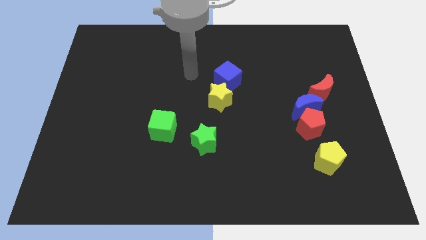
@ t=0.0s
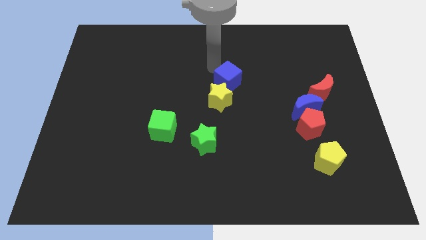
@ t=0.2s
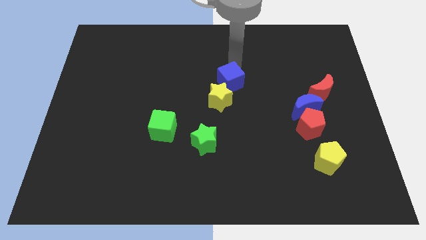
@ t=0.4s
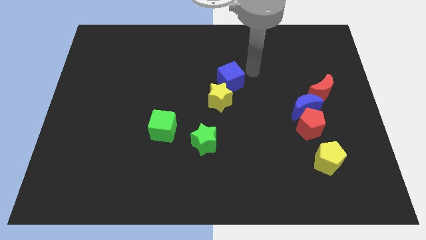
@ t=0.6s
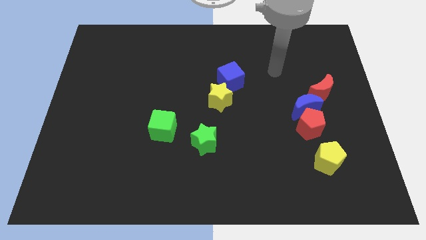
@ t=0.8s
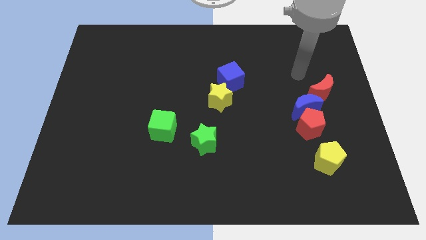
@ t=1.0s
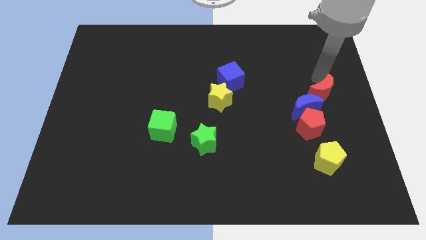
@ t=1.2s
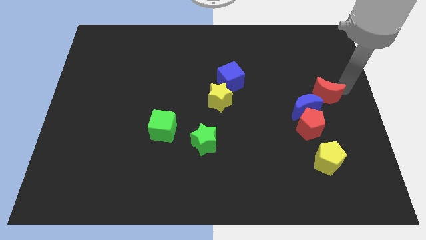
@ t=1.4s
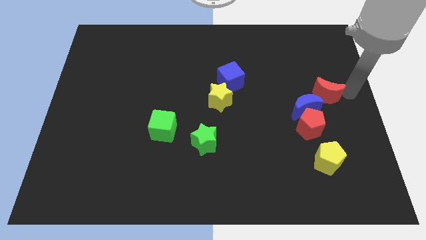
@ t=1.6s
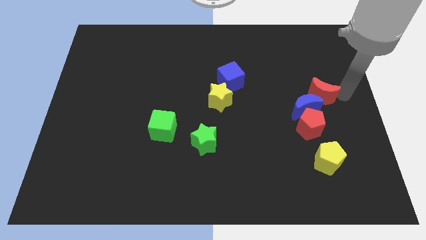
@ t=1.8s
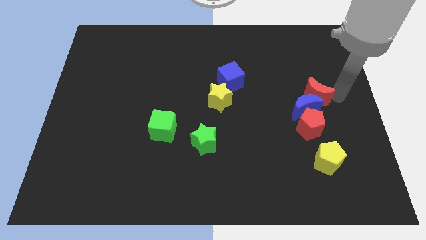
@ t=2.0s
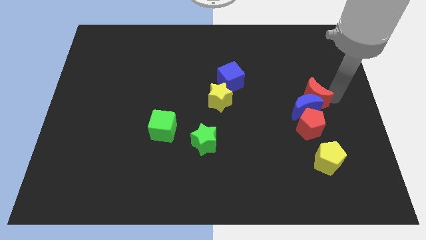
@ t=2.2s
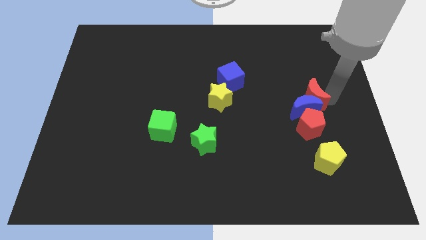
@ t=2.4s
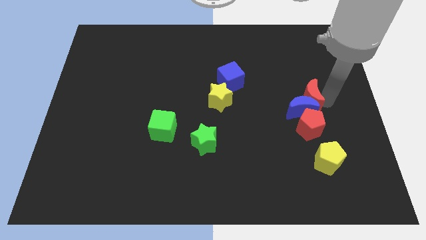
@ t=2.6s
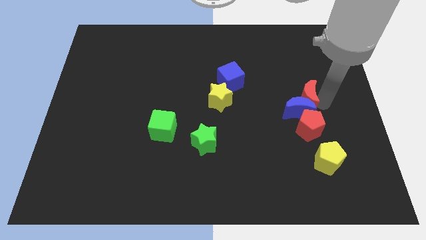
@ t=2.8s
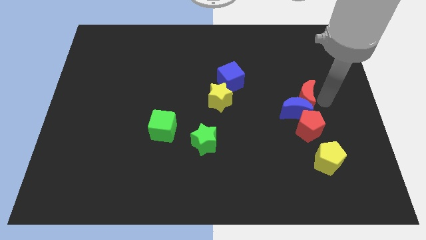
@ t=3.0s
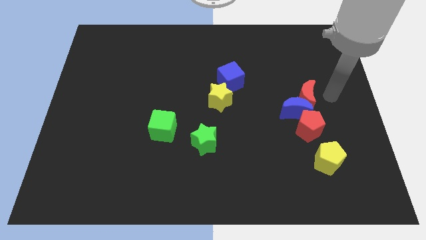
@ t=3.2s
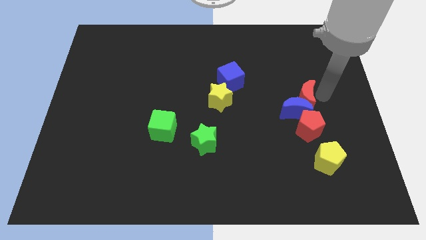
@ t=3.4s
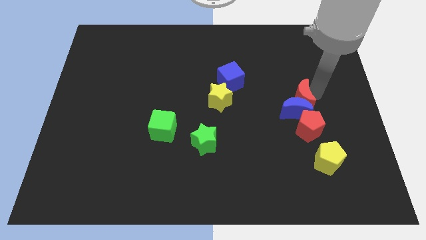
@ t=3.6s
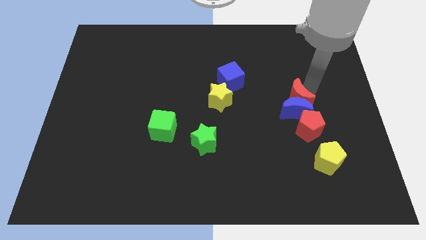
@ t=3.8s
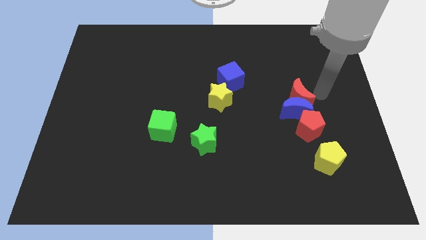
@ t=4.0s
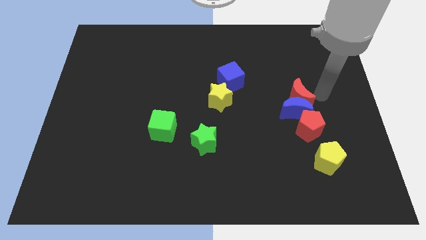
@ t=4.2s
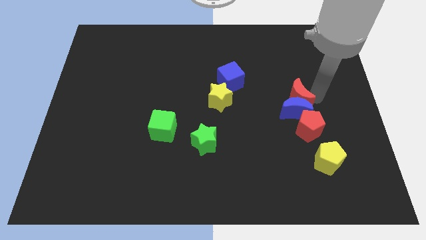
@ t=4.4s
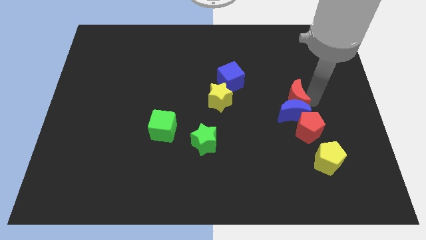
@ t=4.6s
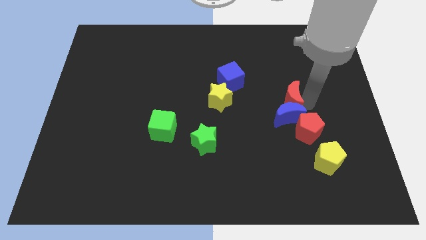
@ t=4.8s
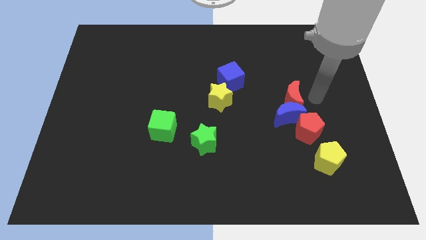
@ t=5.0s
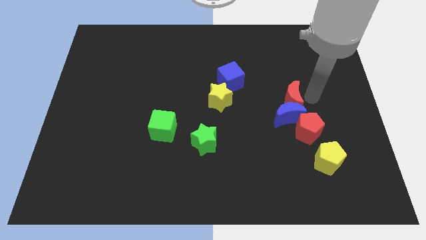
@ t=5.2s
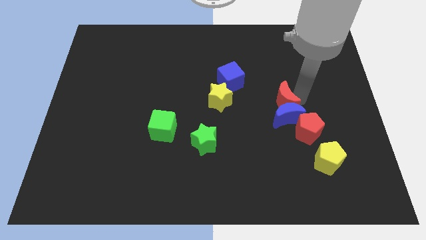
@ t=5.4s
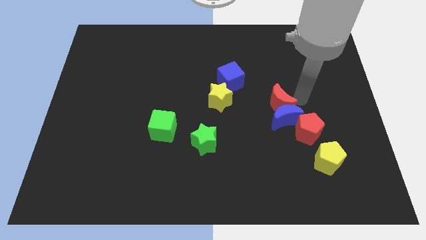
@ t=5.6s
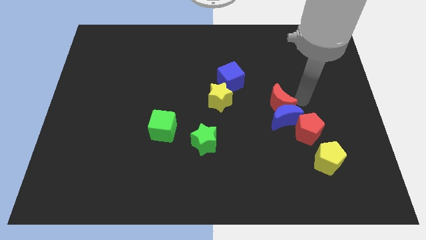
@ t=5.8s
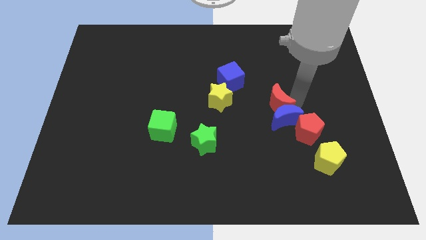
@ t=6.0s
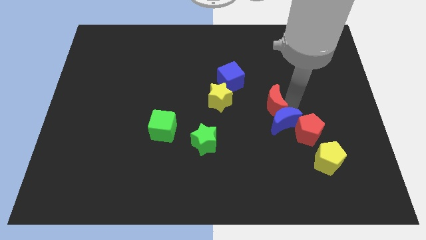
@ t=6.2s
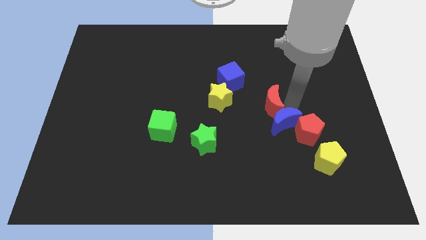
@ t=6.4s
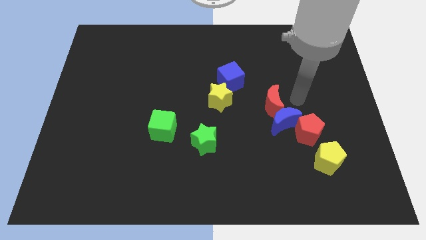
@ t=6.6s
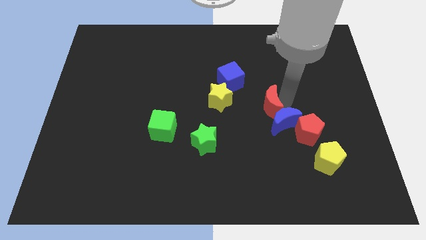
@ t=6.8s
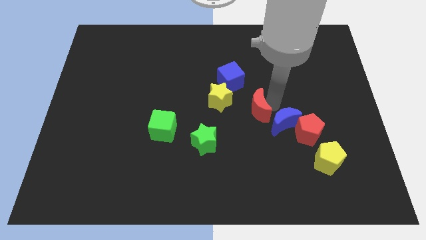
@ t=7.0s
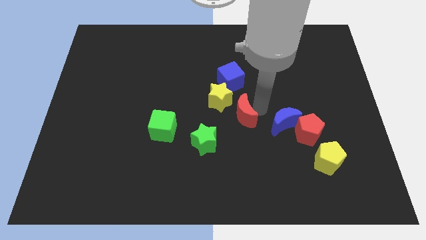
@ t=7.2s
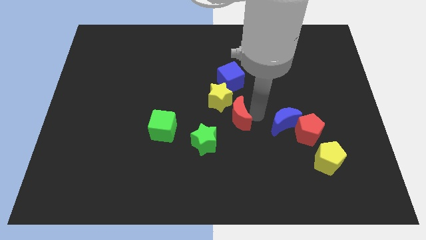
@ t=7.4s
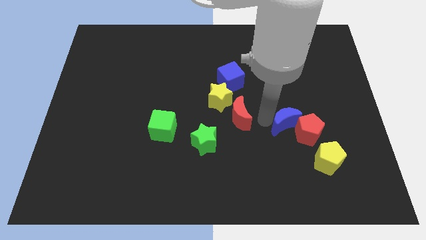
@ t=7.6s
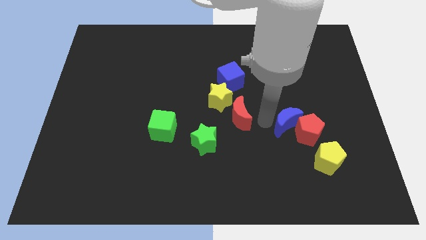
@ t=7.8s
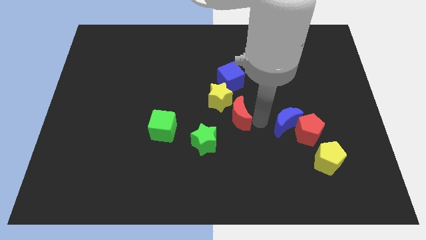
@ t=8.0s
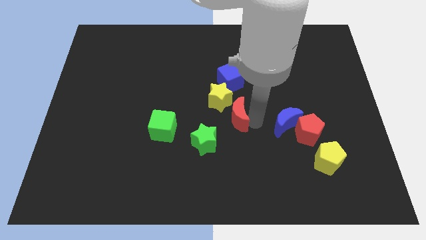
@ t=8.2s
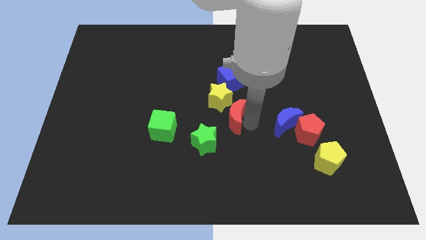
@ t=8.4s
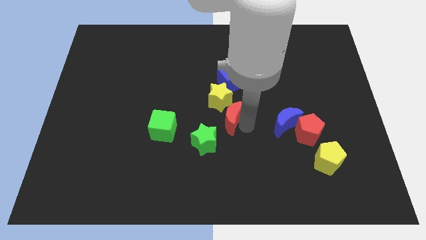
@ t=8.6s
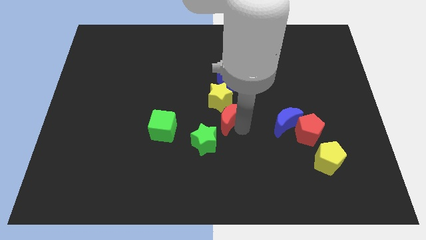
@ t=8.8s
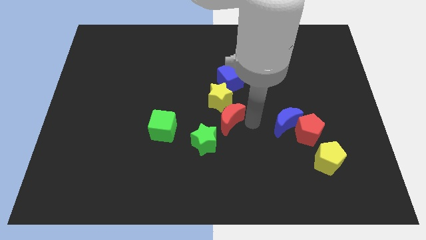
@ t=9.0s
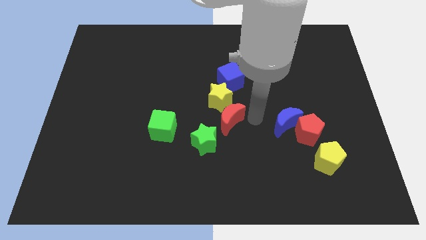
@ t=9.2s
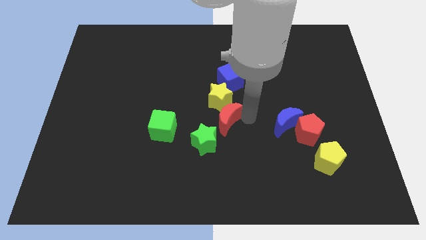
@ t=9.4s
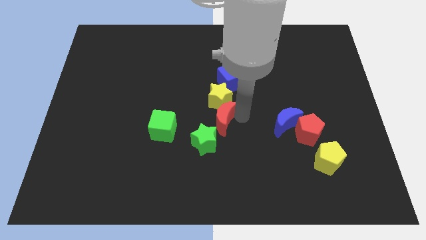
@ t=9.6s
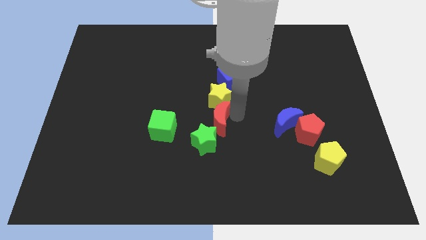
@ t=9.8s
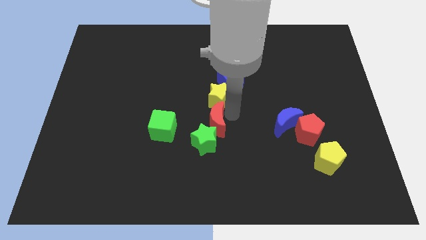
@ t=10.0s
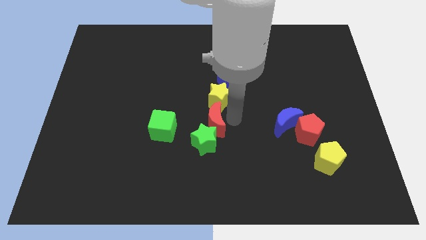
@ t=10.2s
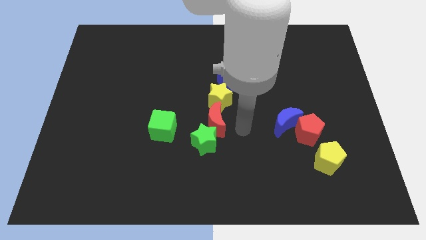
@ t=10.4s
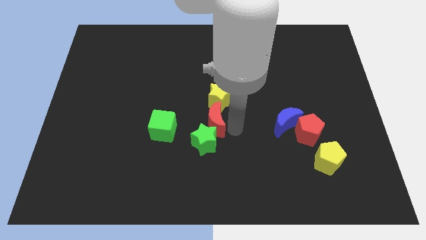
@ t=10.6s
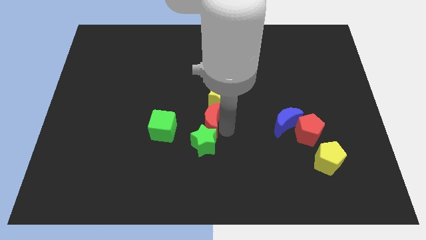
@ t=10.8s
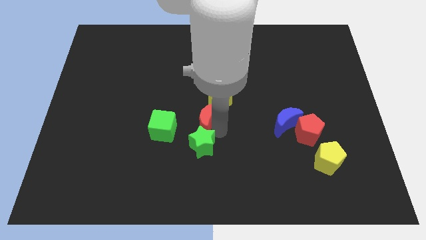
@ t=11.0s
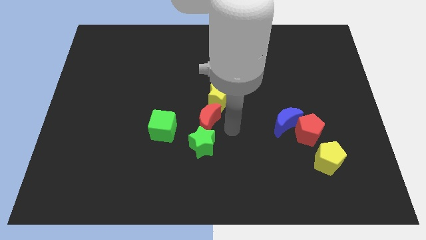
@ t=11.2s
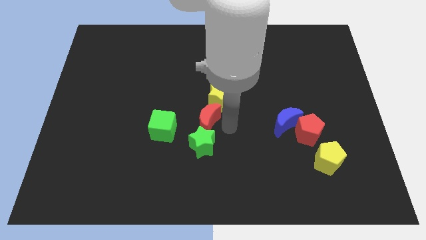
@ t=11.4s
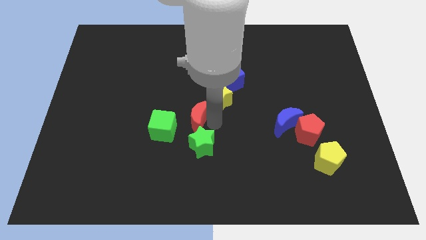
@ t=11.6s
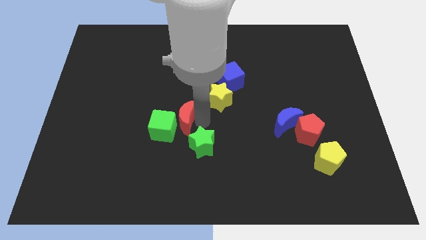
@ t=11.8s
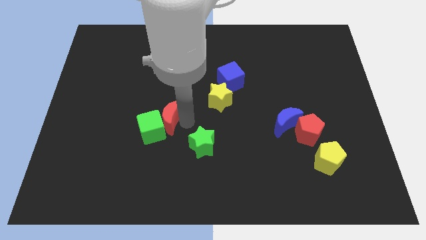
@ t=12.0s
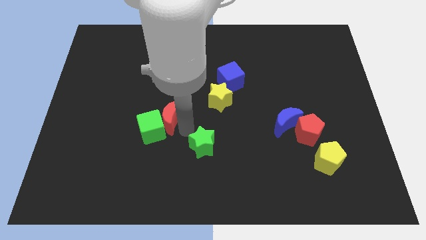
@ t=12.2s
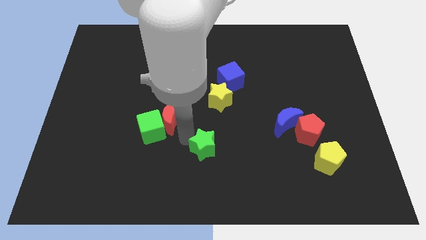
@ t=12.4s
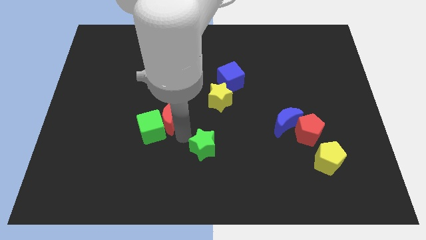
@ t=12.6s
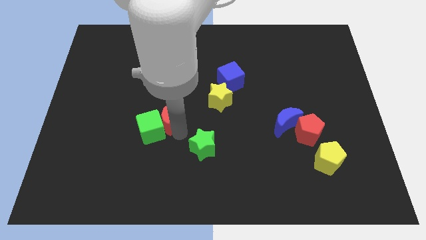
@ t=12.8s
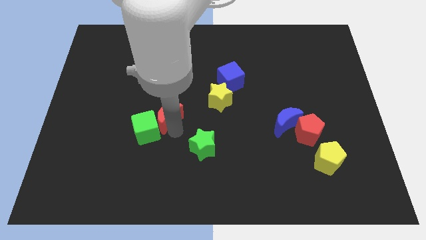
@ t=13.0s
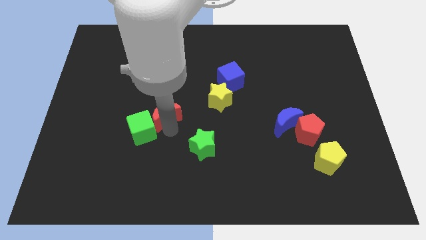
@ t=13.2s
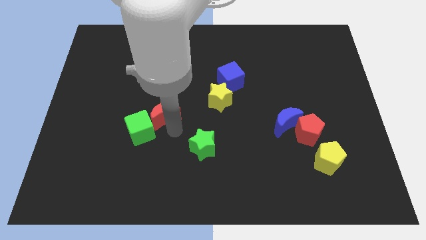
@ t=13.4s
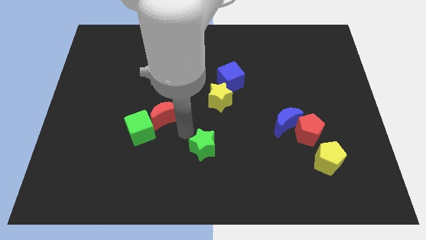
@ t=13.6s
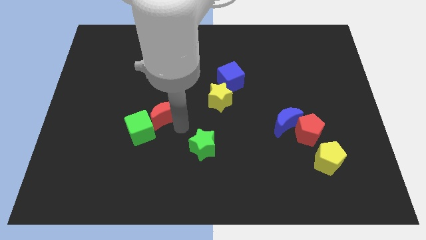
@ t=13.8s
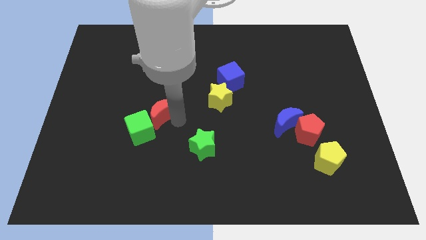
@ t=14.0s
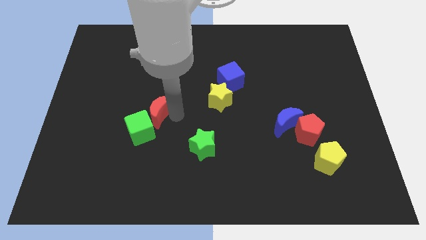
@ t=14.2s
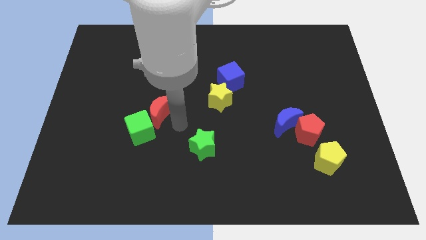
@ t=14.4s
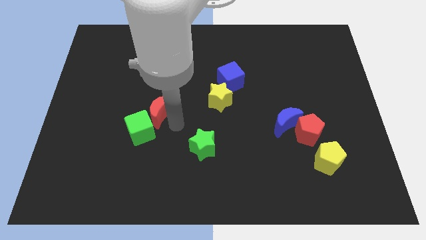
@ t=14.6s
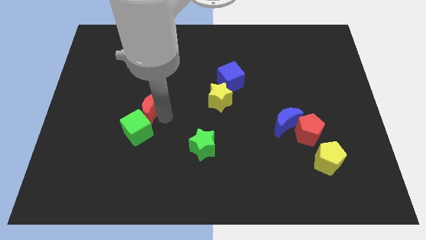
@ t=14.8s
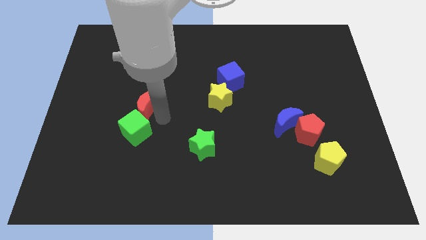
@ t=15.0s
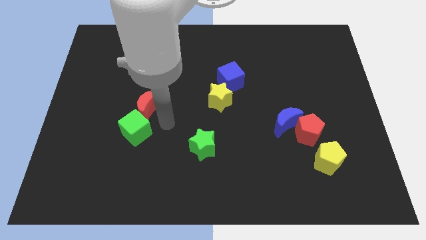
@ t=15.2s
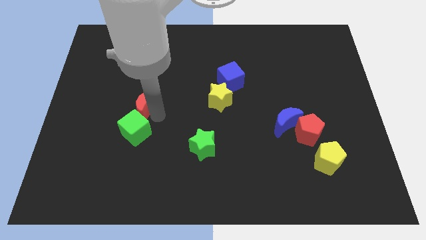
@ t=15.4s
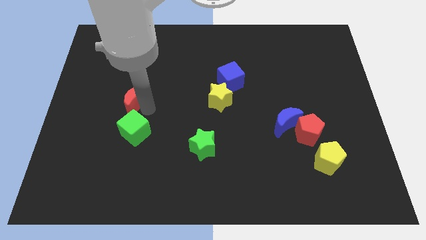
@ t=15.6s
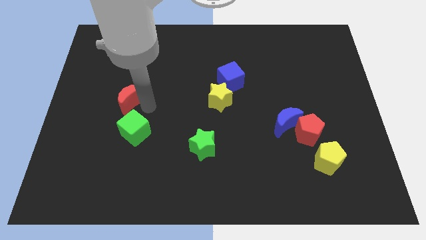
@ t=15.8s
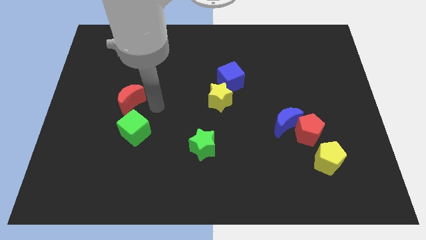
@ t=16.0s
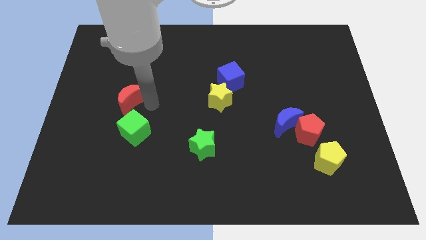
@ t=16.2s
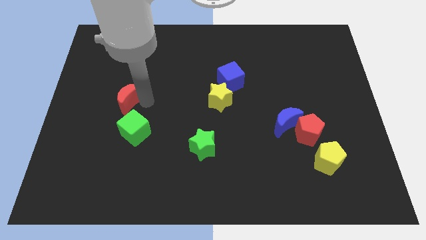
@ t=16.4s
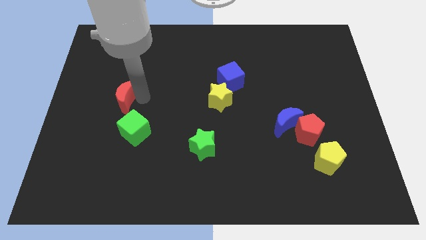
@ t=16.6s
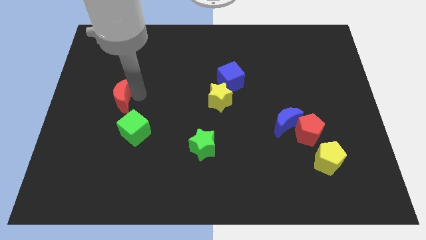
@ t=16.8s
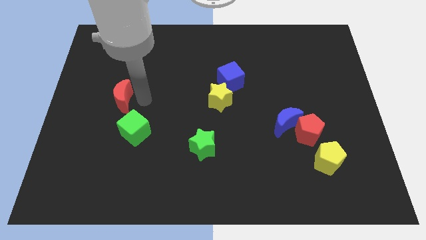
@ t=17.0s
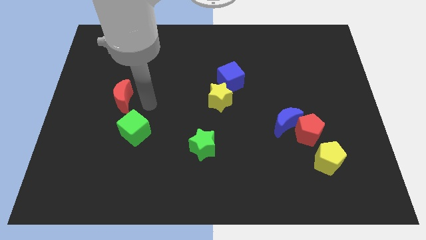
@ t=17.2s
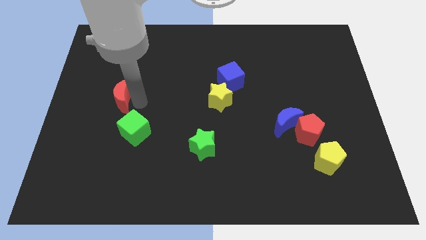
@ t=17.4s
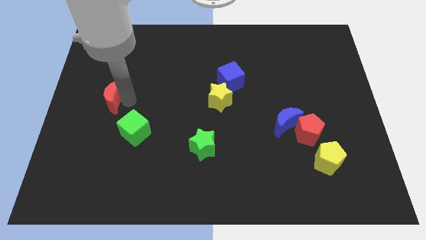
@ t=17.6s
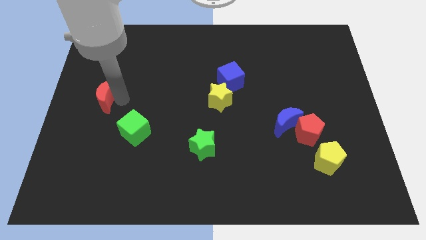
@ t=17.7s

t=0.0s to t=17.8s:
slide the red moon to the center left
